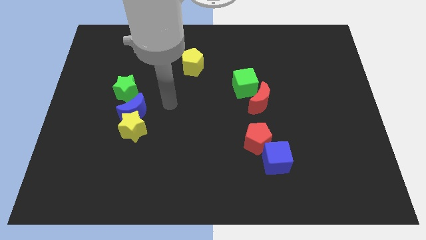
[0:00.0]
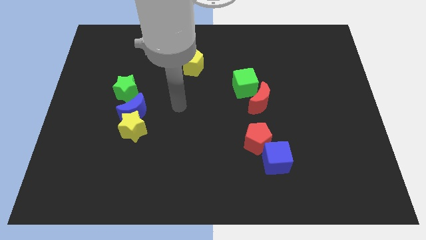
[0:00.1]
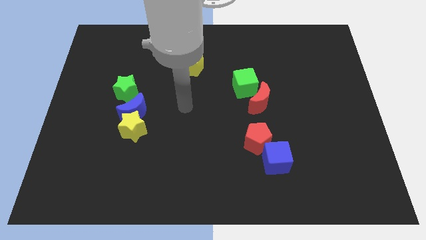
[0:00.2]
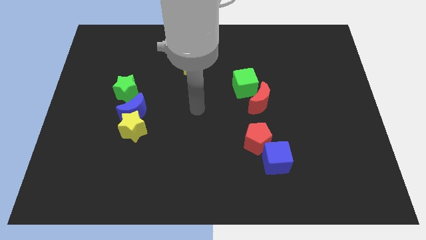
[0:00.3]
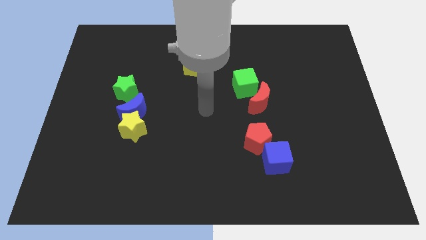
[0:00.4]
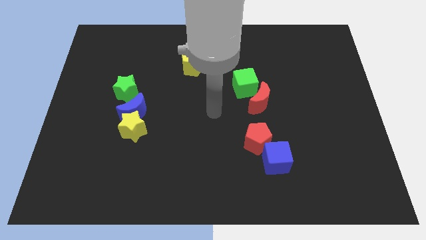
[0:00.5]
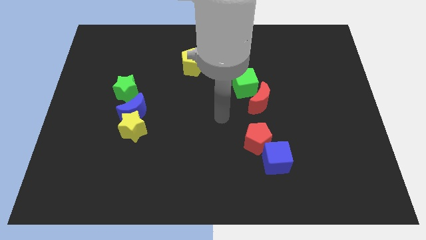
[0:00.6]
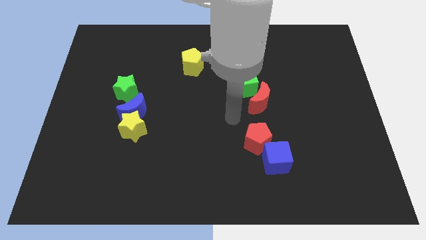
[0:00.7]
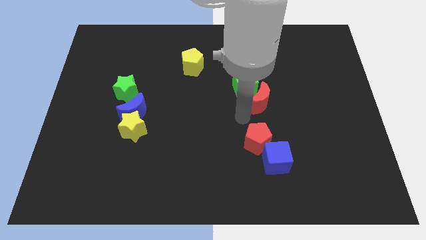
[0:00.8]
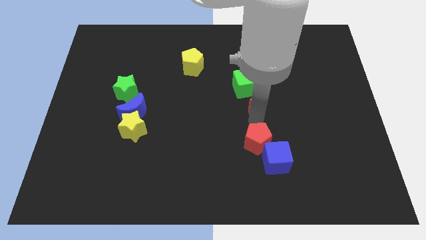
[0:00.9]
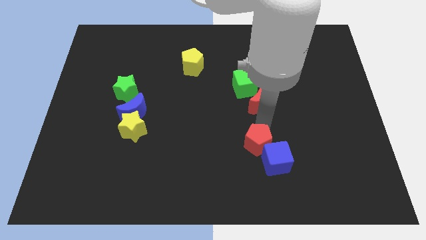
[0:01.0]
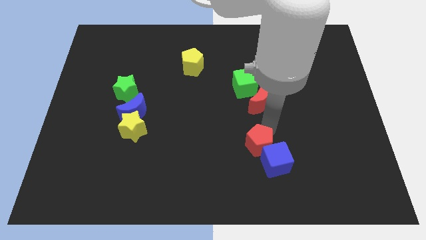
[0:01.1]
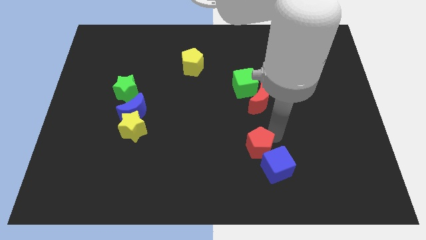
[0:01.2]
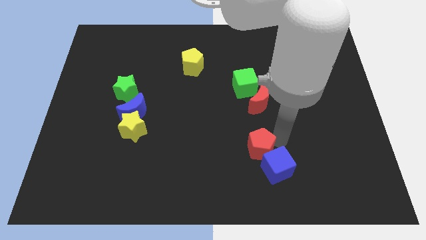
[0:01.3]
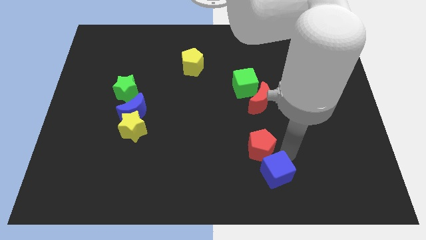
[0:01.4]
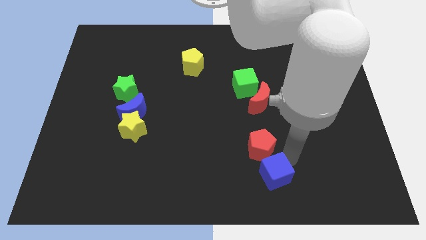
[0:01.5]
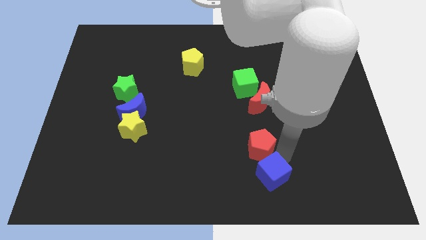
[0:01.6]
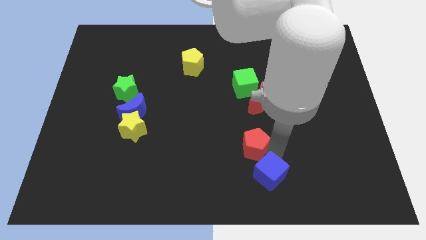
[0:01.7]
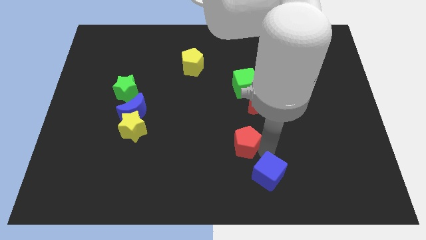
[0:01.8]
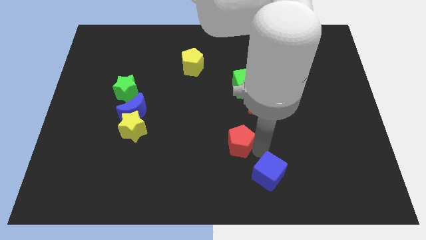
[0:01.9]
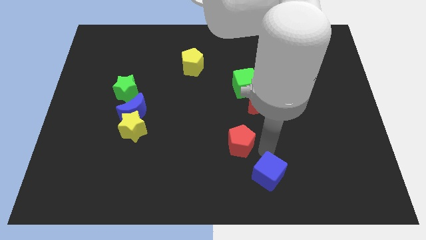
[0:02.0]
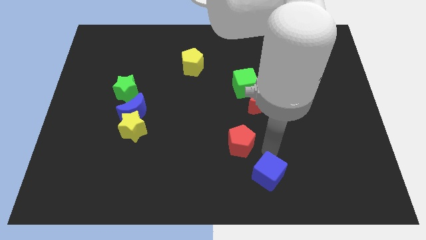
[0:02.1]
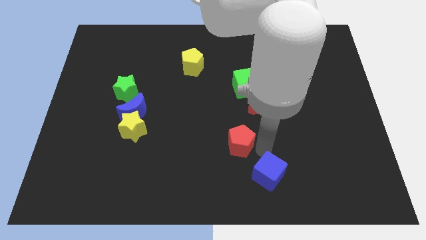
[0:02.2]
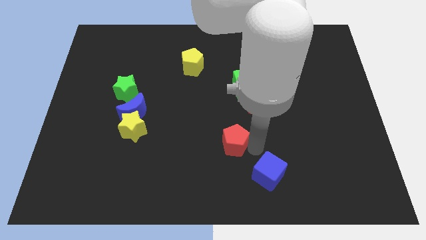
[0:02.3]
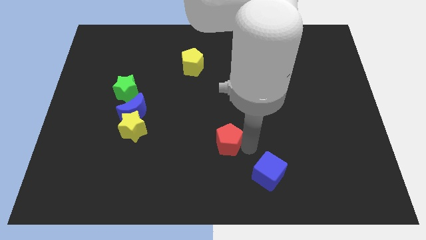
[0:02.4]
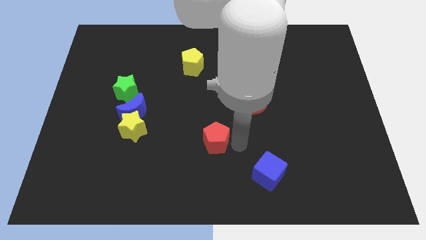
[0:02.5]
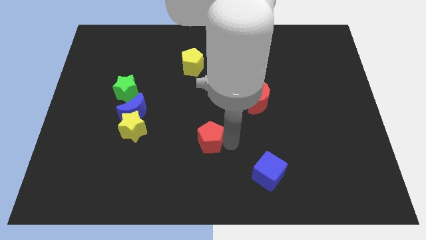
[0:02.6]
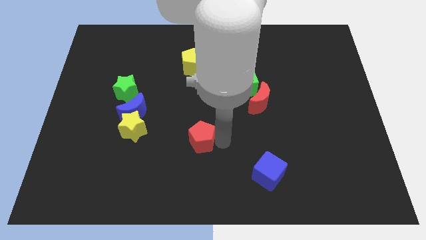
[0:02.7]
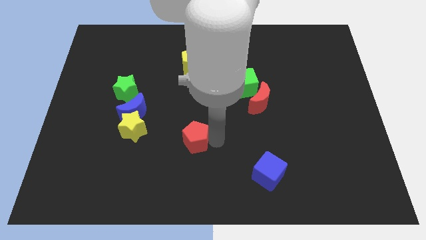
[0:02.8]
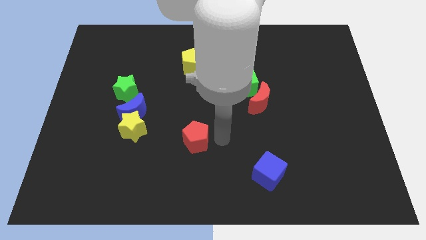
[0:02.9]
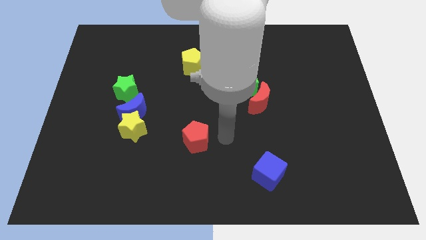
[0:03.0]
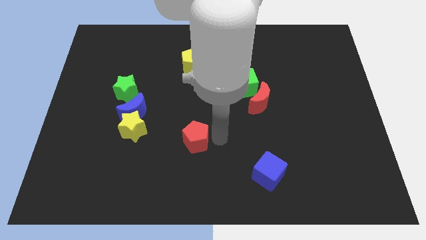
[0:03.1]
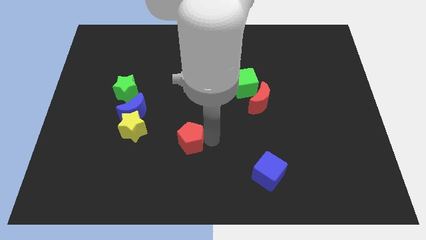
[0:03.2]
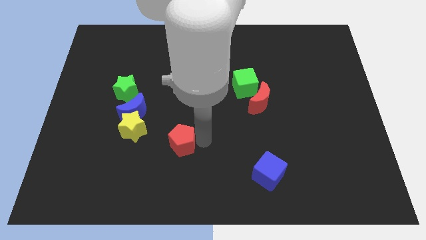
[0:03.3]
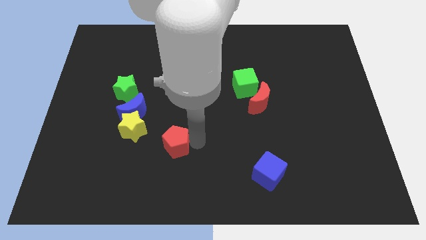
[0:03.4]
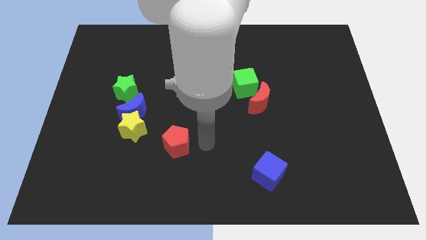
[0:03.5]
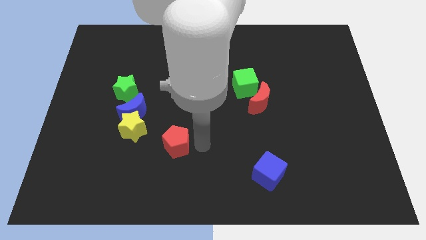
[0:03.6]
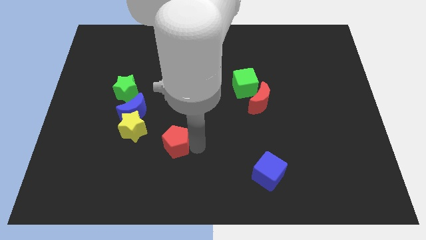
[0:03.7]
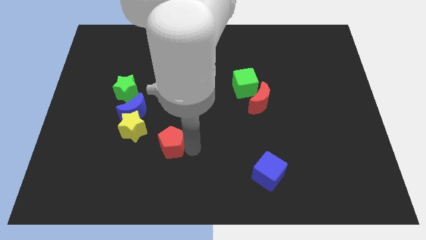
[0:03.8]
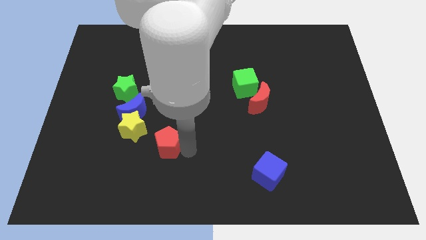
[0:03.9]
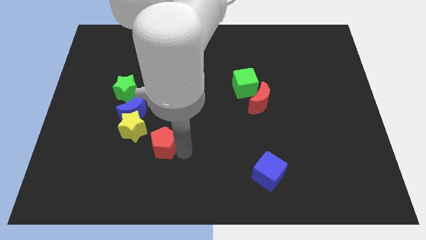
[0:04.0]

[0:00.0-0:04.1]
slide the red pentagon to the left

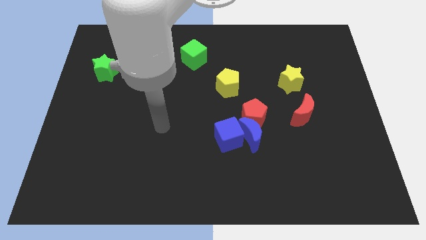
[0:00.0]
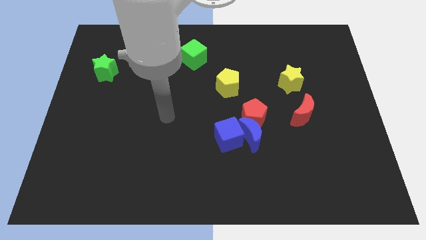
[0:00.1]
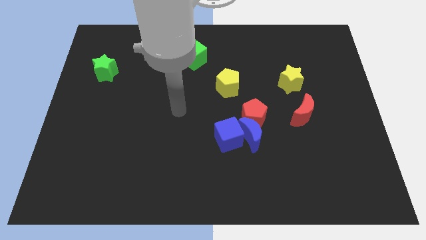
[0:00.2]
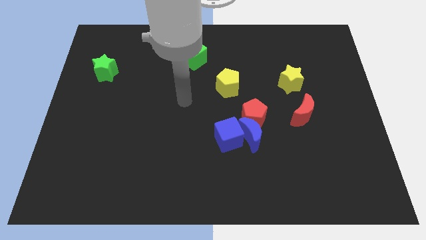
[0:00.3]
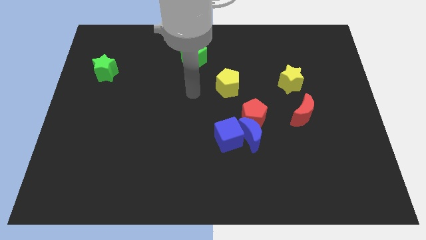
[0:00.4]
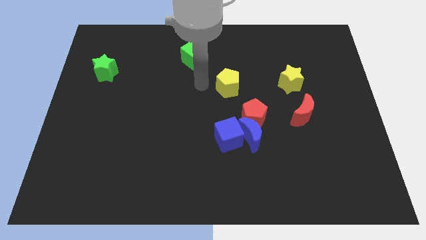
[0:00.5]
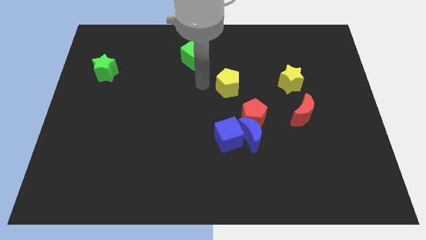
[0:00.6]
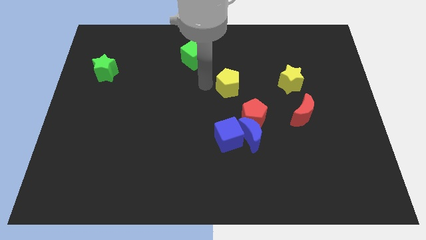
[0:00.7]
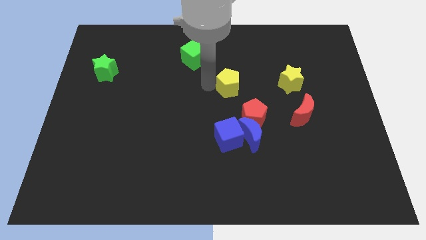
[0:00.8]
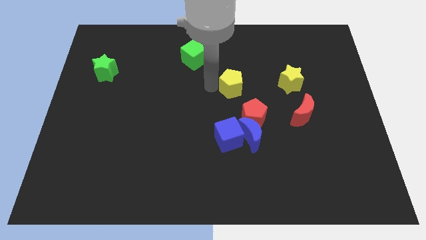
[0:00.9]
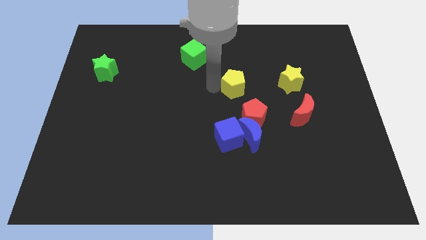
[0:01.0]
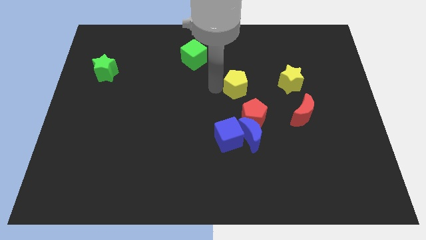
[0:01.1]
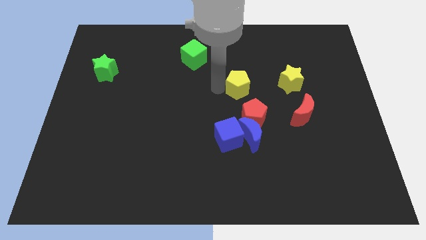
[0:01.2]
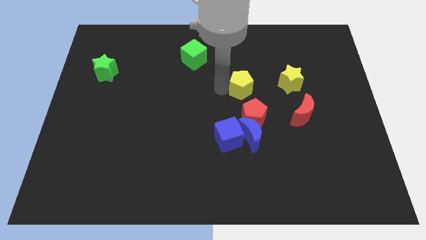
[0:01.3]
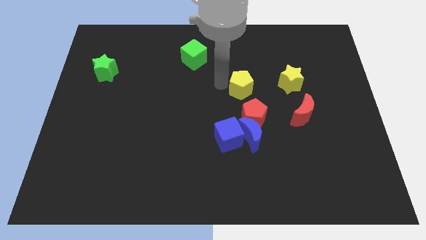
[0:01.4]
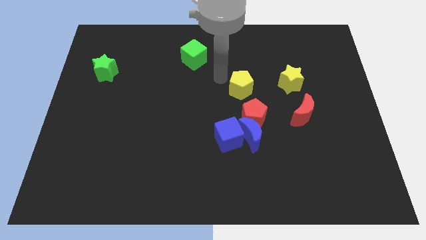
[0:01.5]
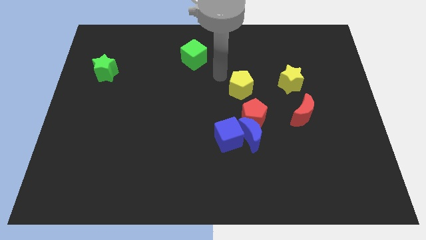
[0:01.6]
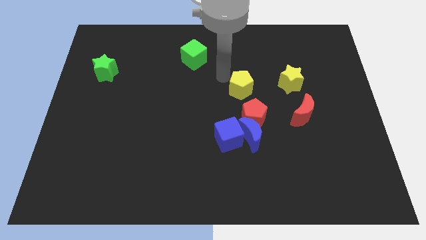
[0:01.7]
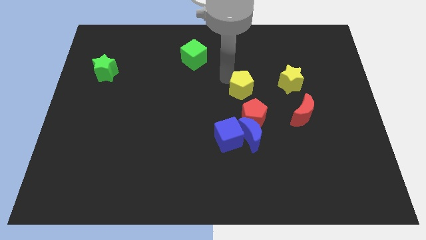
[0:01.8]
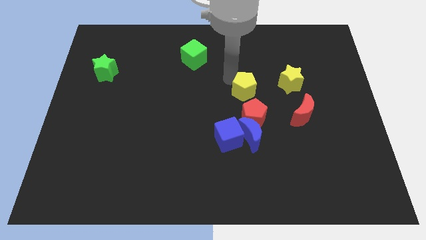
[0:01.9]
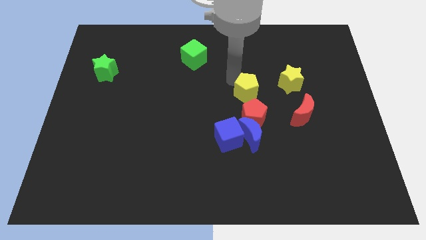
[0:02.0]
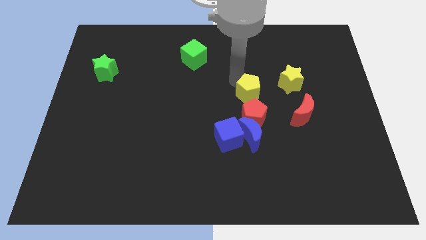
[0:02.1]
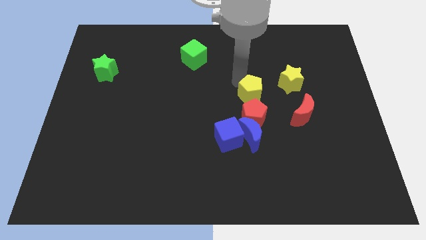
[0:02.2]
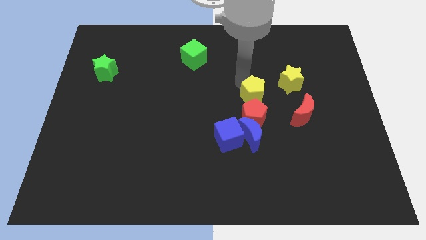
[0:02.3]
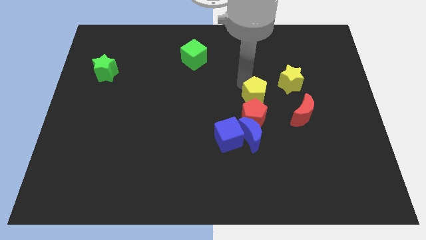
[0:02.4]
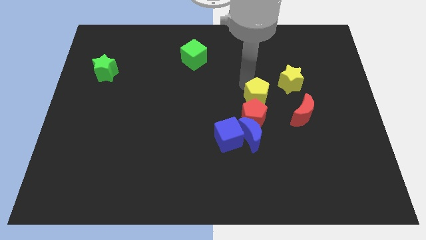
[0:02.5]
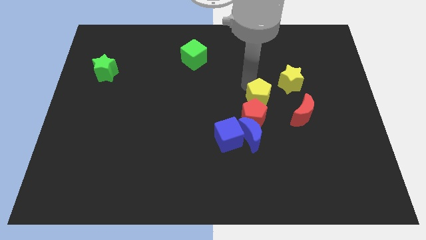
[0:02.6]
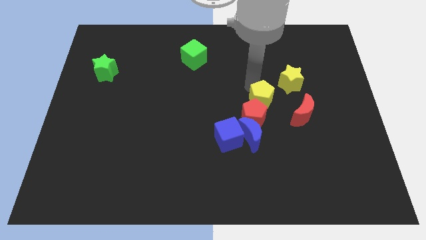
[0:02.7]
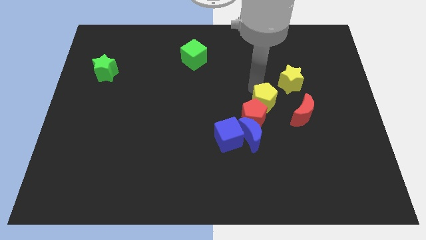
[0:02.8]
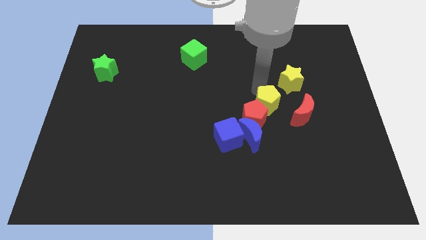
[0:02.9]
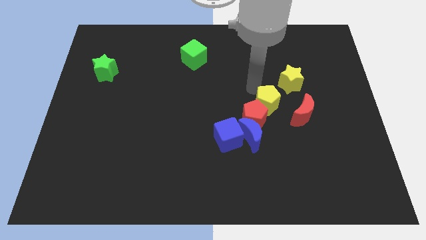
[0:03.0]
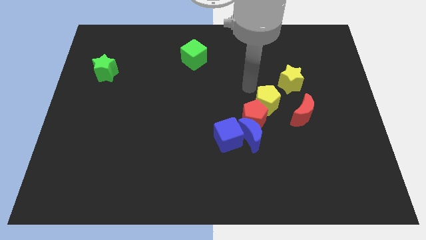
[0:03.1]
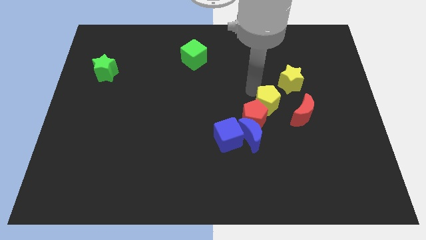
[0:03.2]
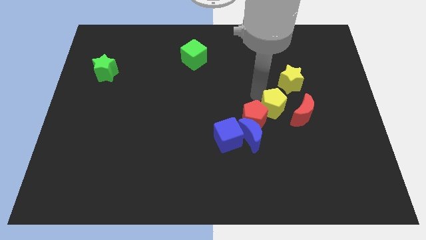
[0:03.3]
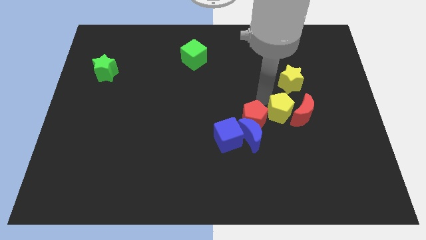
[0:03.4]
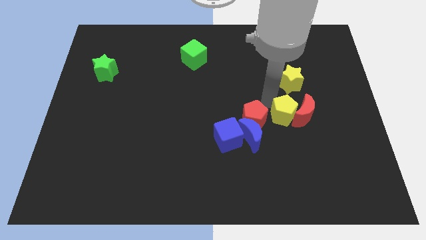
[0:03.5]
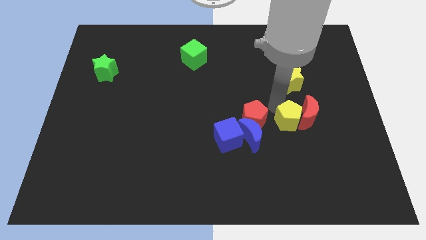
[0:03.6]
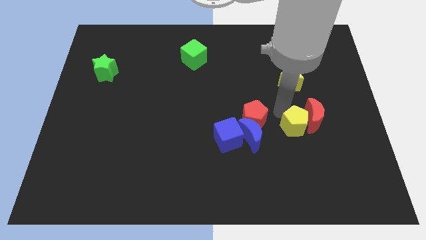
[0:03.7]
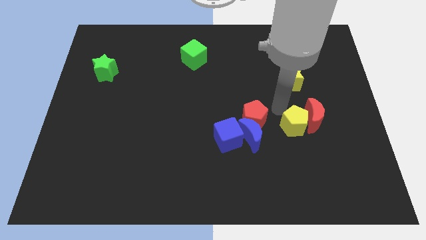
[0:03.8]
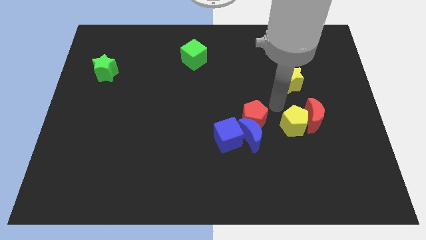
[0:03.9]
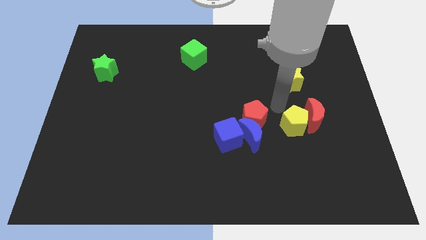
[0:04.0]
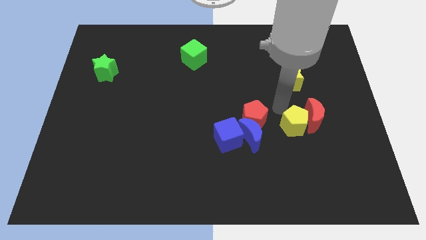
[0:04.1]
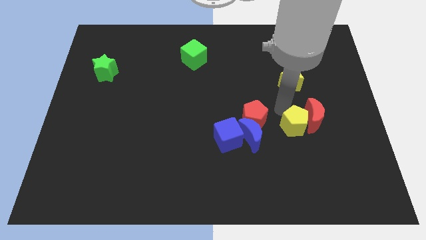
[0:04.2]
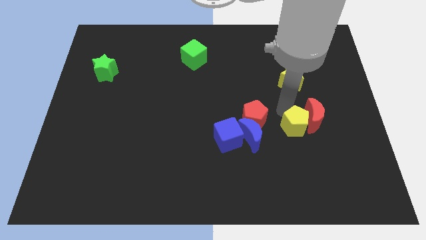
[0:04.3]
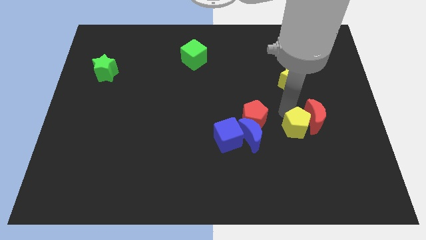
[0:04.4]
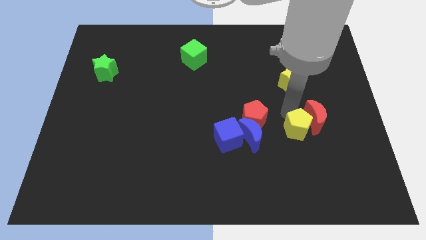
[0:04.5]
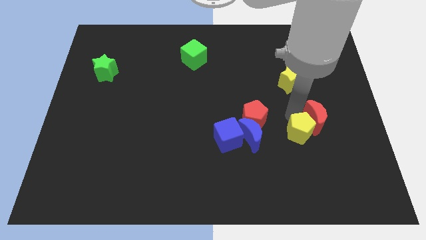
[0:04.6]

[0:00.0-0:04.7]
push the yellow pentagon down and then to the right
